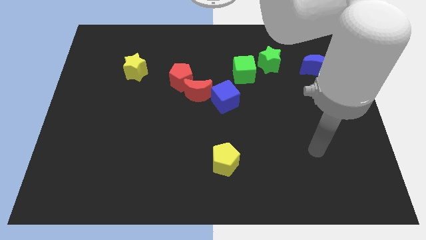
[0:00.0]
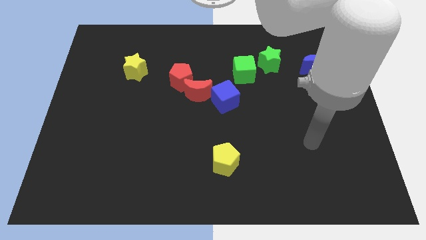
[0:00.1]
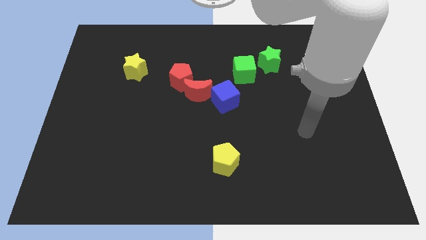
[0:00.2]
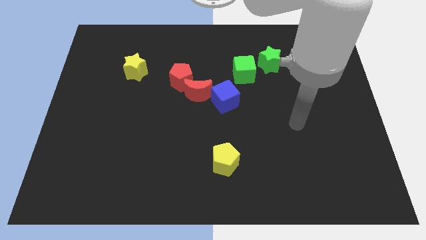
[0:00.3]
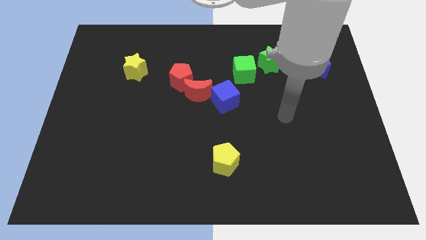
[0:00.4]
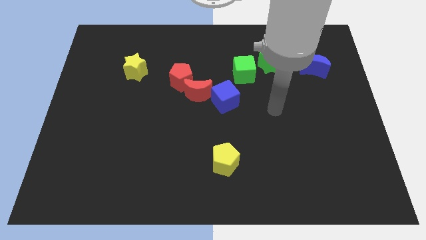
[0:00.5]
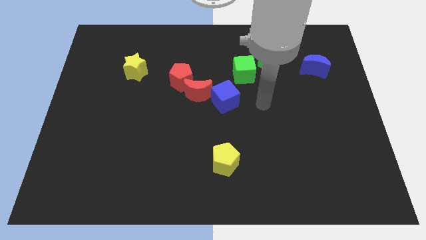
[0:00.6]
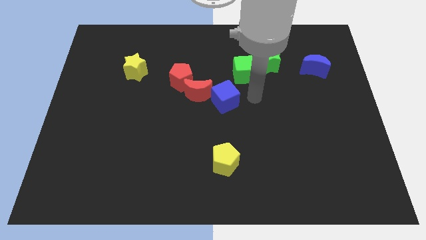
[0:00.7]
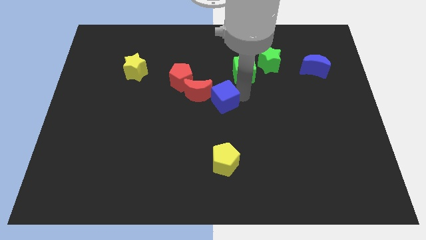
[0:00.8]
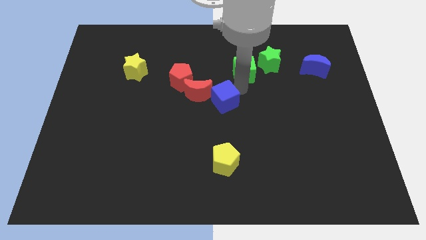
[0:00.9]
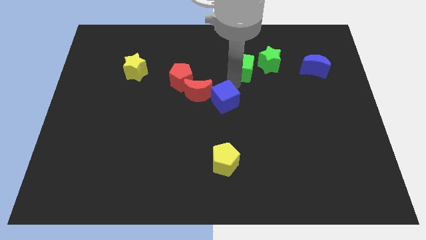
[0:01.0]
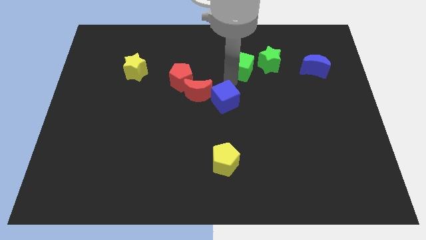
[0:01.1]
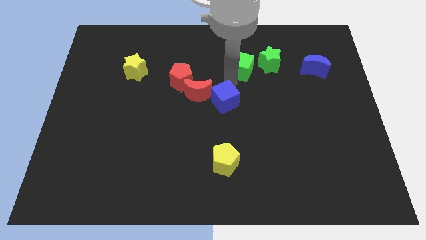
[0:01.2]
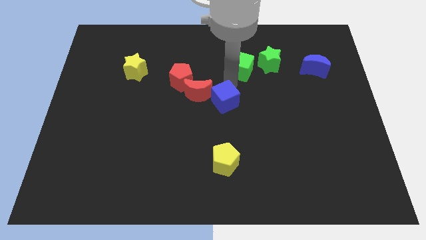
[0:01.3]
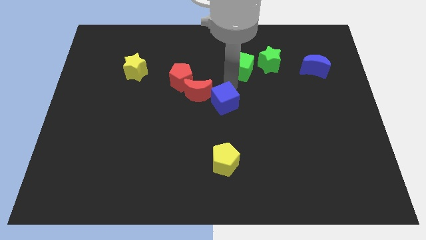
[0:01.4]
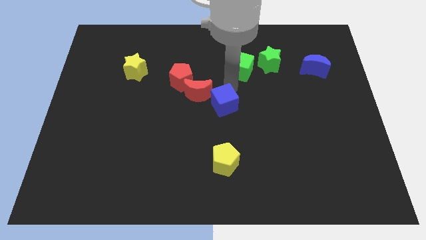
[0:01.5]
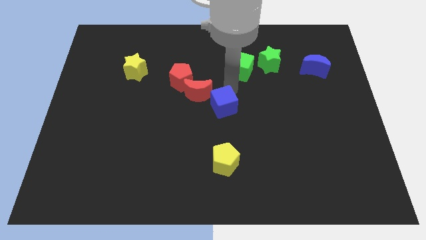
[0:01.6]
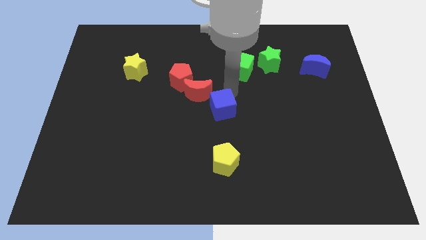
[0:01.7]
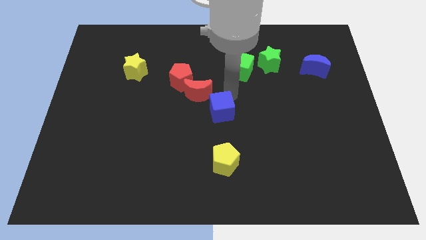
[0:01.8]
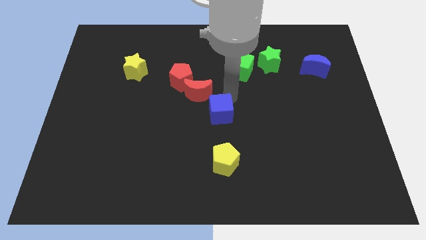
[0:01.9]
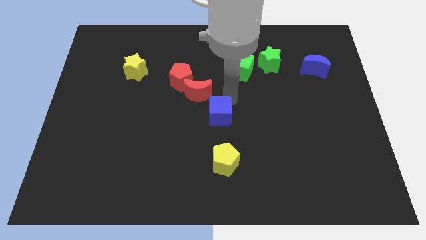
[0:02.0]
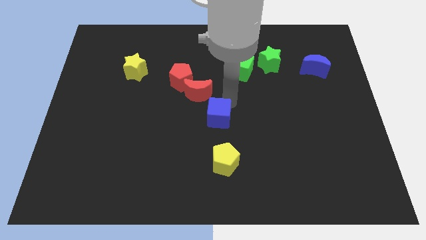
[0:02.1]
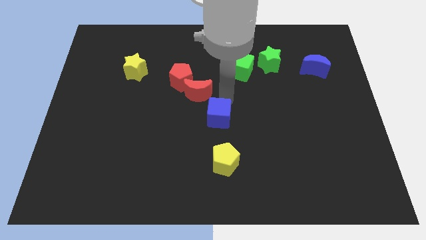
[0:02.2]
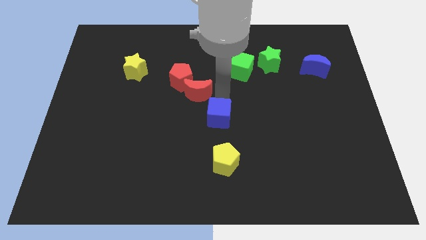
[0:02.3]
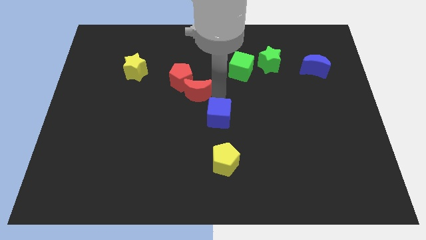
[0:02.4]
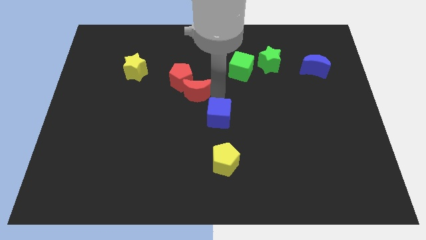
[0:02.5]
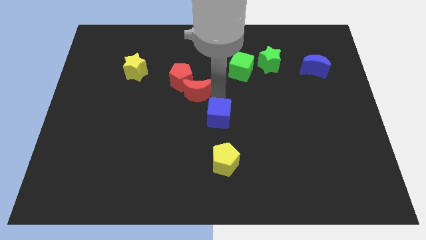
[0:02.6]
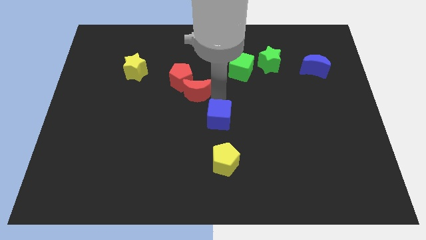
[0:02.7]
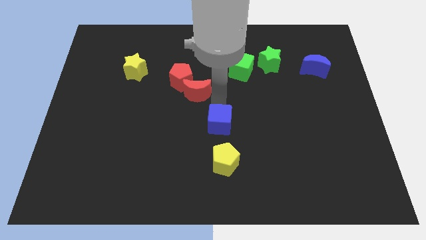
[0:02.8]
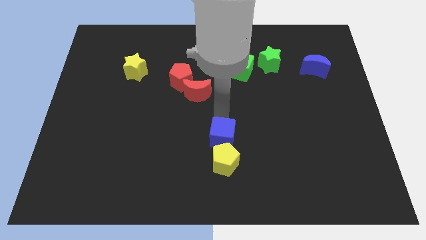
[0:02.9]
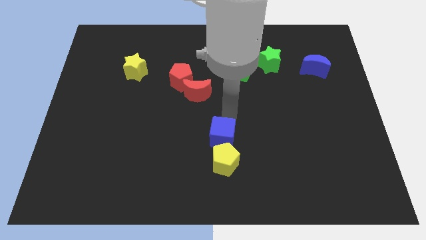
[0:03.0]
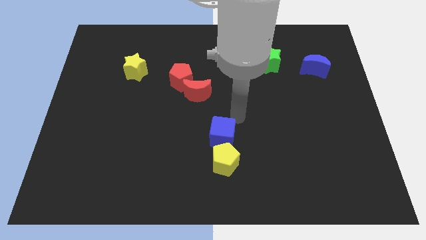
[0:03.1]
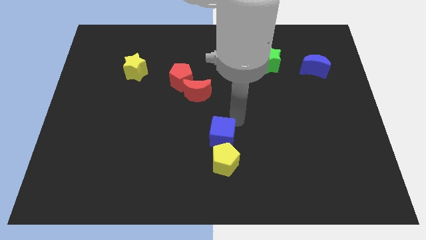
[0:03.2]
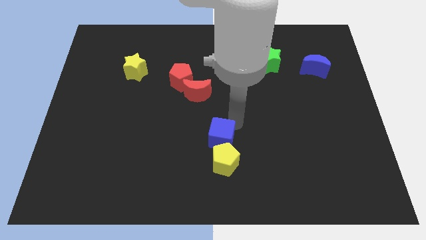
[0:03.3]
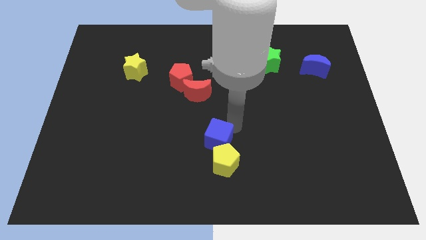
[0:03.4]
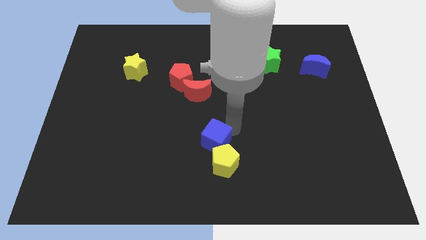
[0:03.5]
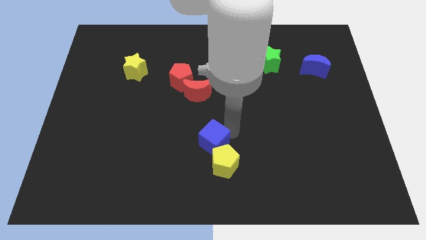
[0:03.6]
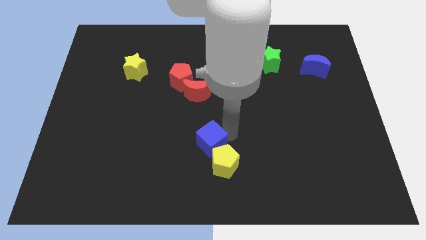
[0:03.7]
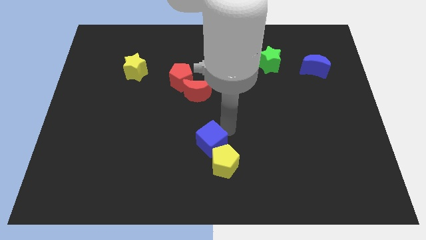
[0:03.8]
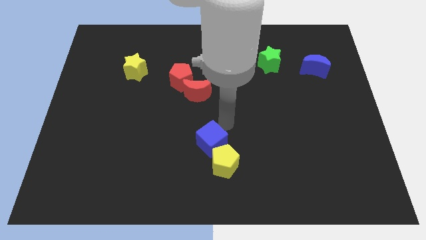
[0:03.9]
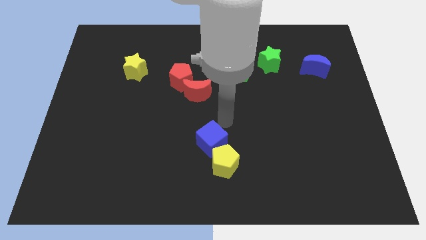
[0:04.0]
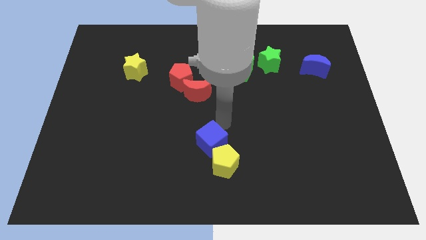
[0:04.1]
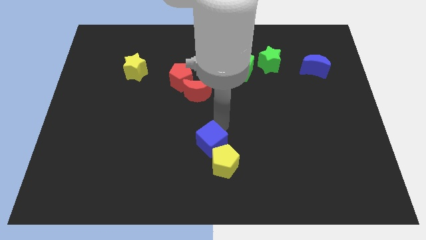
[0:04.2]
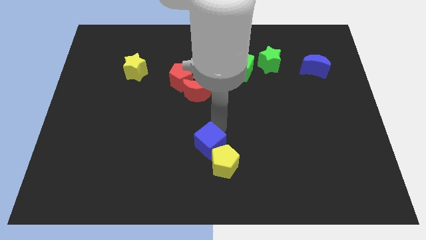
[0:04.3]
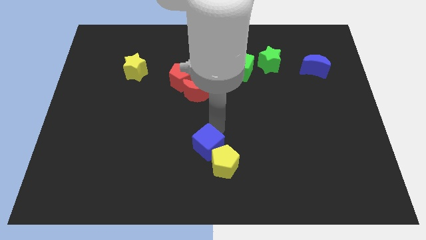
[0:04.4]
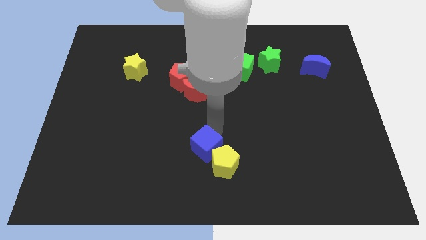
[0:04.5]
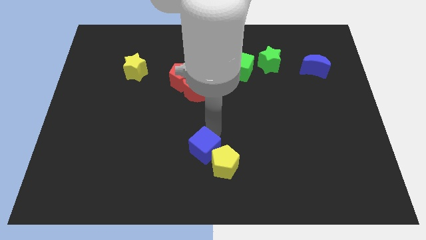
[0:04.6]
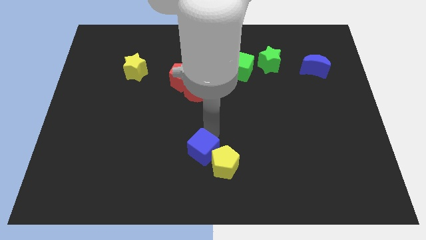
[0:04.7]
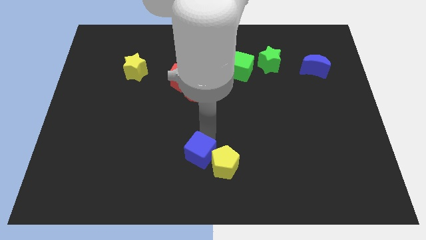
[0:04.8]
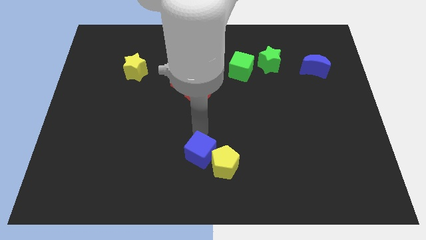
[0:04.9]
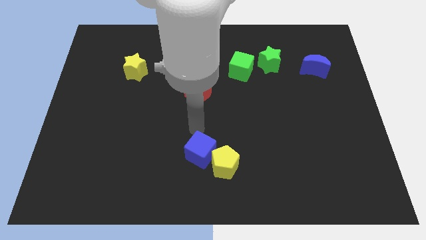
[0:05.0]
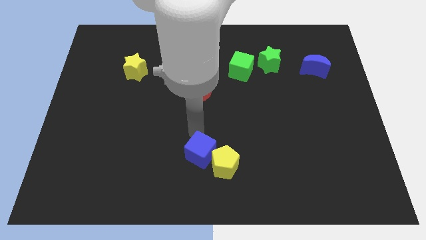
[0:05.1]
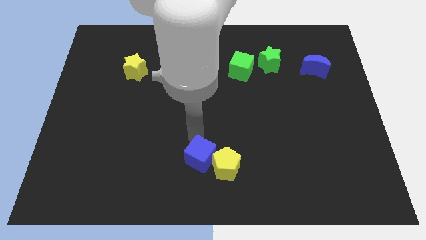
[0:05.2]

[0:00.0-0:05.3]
push the blue cube to the bottom side
